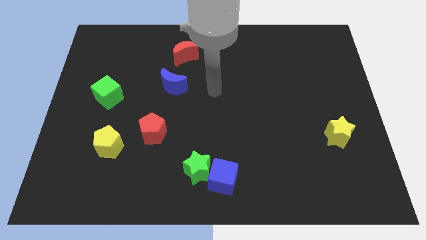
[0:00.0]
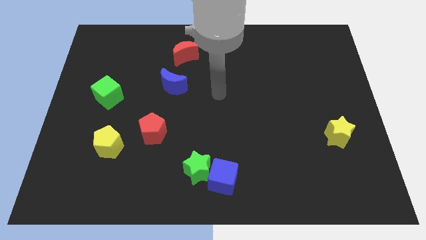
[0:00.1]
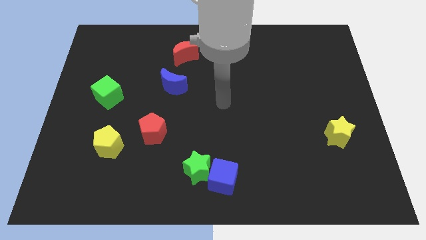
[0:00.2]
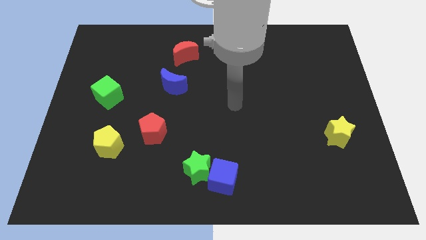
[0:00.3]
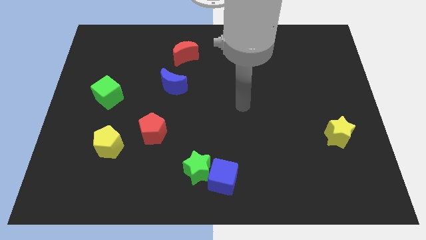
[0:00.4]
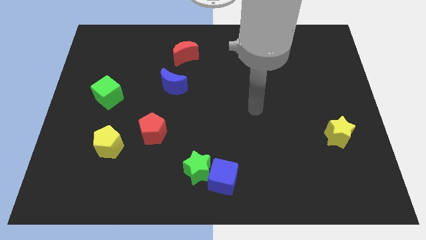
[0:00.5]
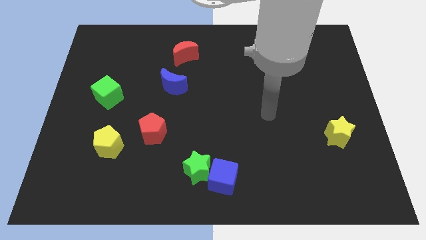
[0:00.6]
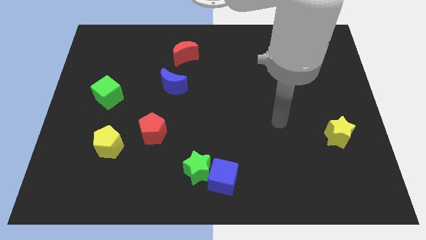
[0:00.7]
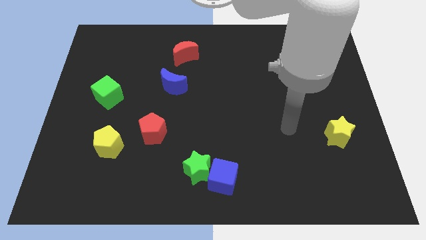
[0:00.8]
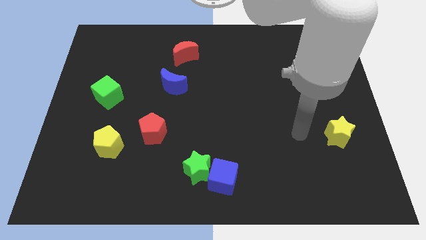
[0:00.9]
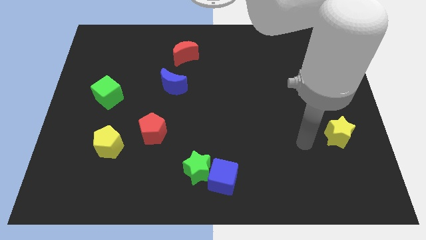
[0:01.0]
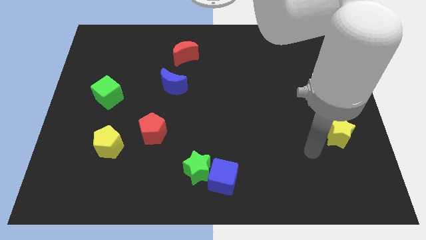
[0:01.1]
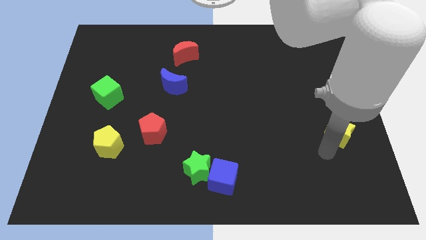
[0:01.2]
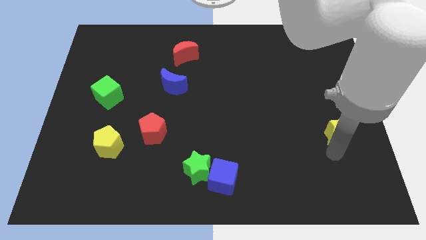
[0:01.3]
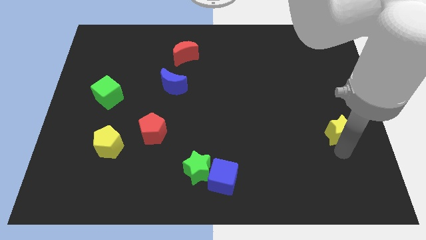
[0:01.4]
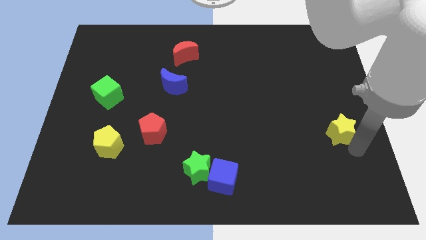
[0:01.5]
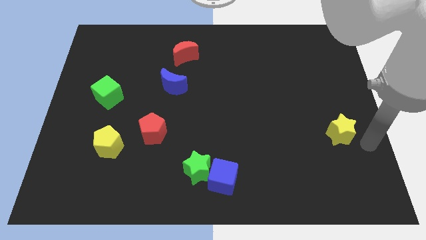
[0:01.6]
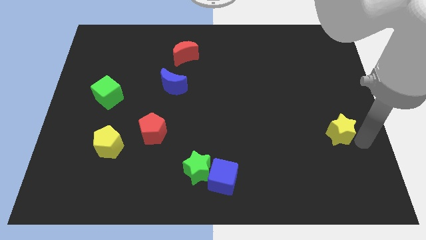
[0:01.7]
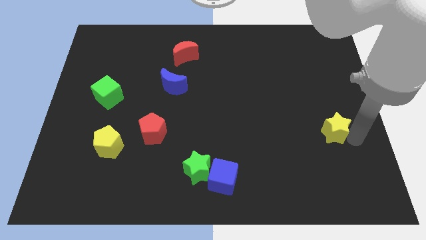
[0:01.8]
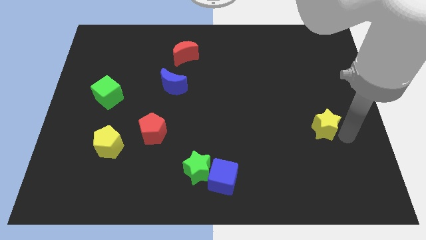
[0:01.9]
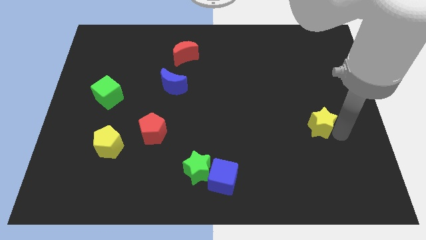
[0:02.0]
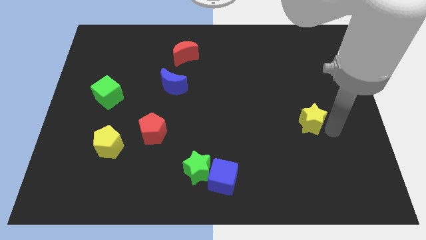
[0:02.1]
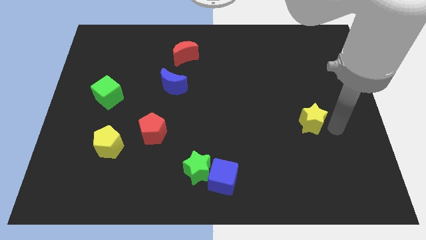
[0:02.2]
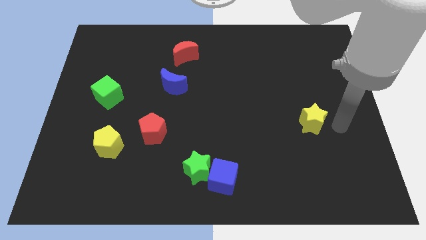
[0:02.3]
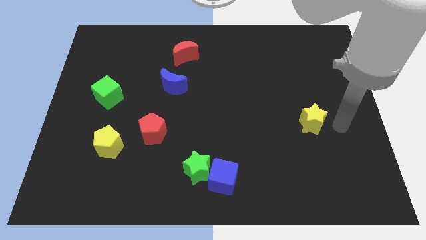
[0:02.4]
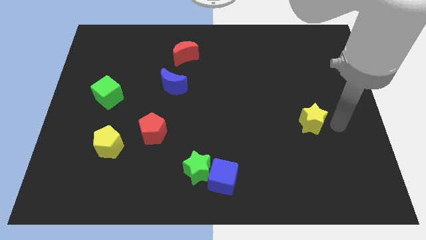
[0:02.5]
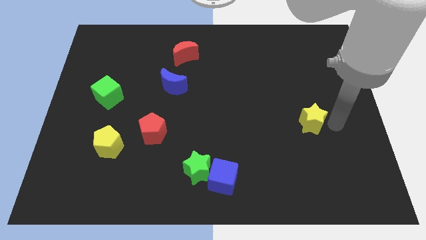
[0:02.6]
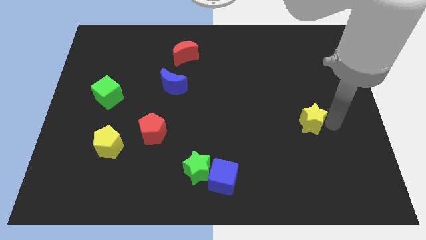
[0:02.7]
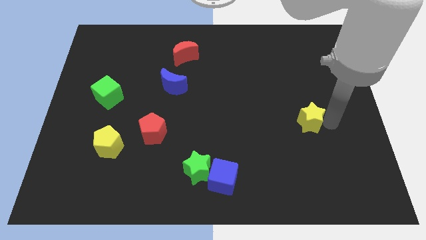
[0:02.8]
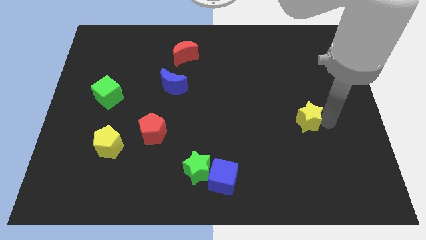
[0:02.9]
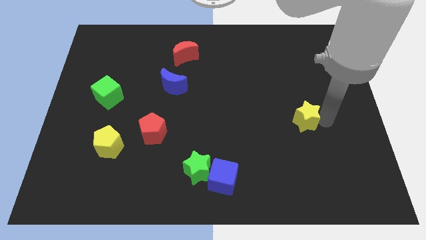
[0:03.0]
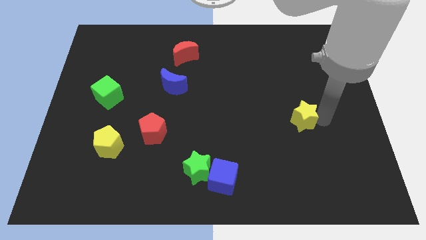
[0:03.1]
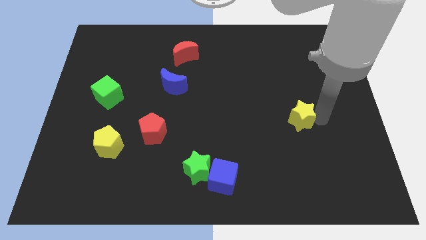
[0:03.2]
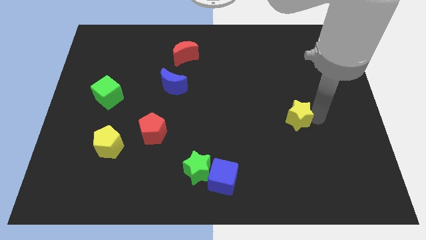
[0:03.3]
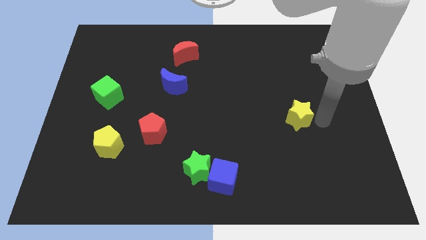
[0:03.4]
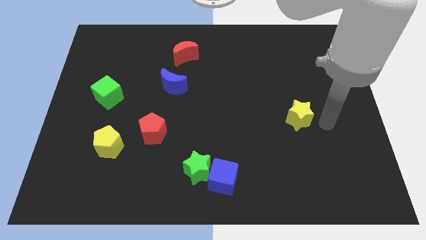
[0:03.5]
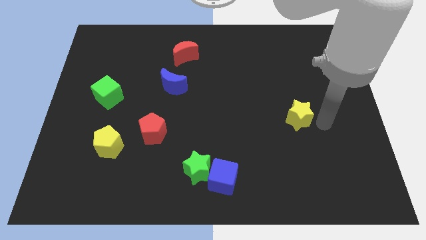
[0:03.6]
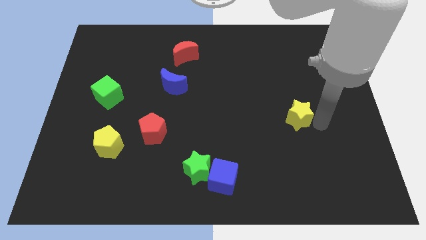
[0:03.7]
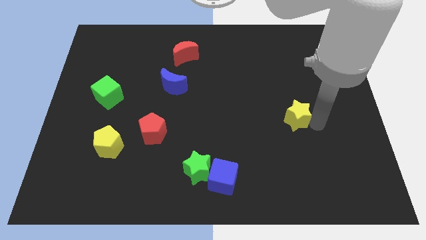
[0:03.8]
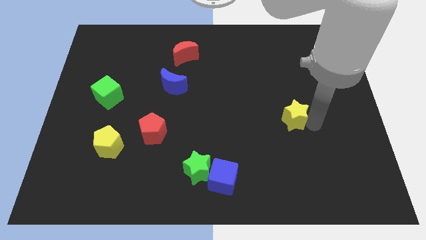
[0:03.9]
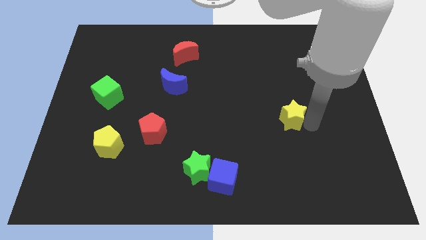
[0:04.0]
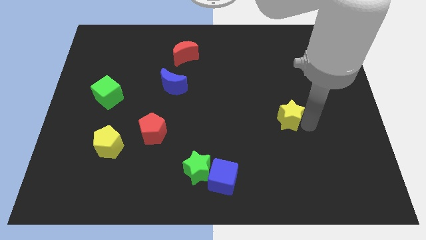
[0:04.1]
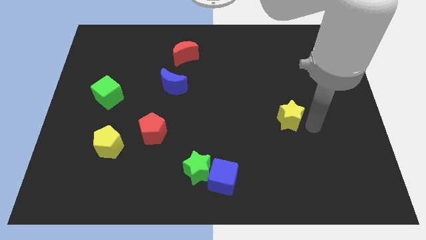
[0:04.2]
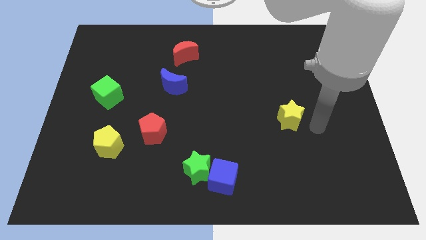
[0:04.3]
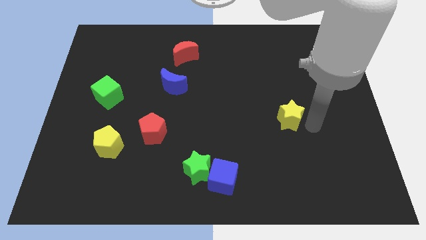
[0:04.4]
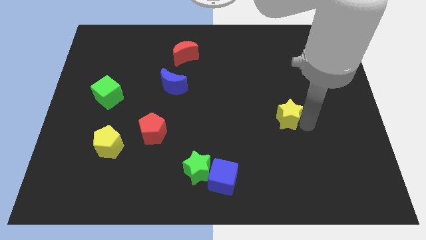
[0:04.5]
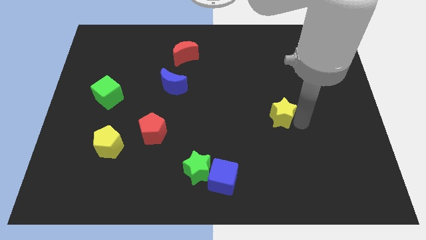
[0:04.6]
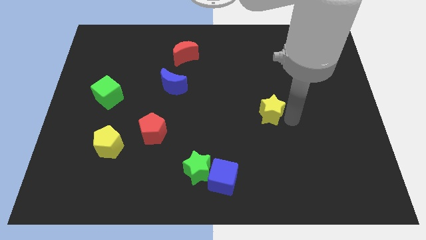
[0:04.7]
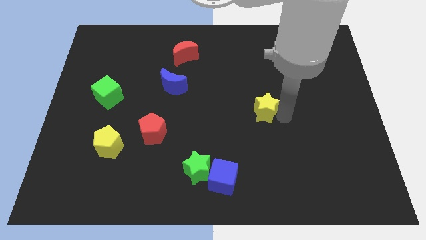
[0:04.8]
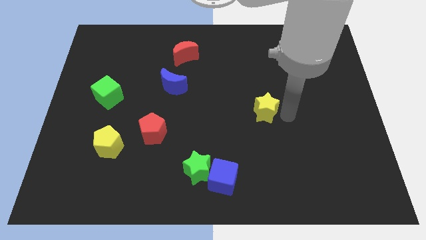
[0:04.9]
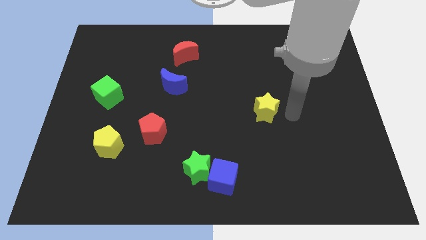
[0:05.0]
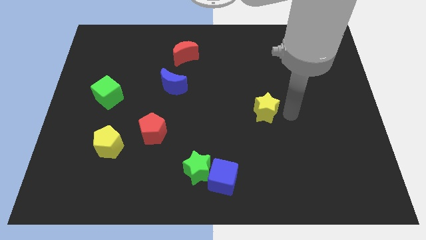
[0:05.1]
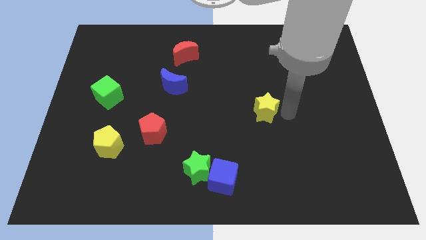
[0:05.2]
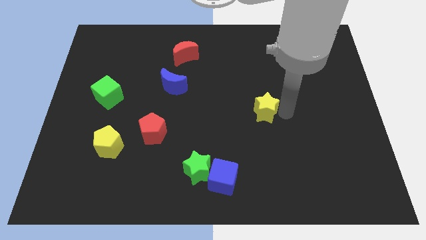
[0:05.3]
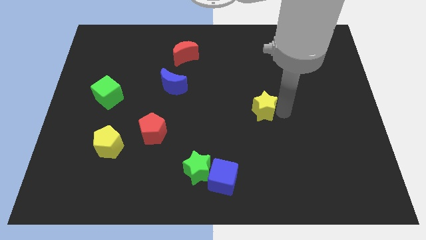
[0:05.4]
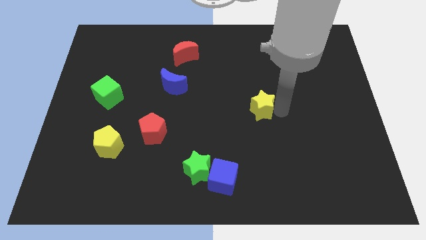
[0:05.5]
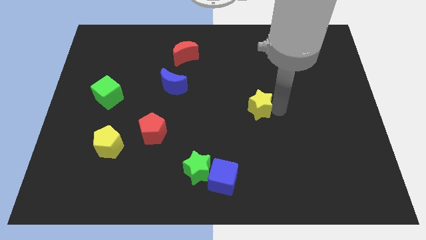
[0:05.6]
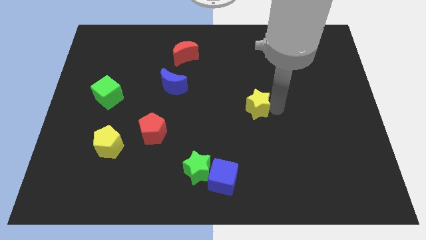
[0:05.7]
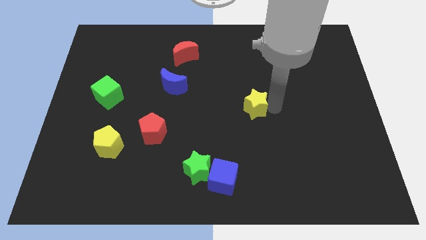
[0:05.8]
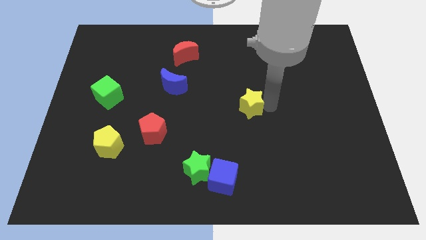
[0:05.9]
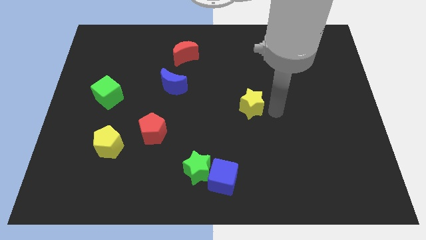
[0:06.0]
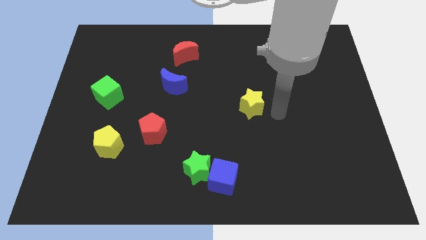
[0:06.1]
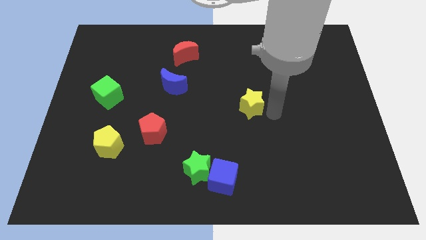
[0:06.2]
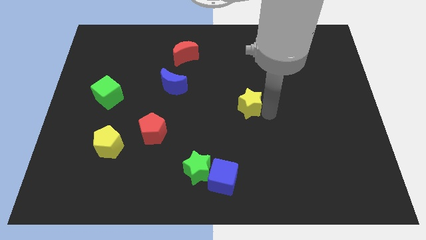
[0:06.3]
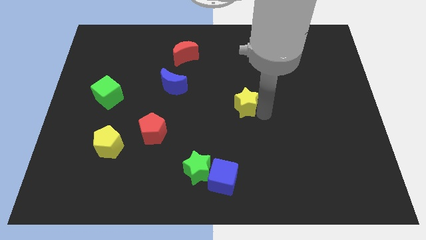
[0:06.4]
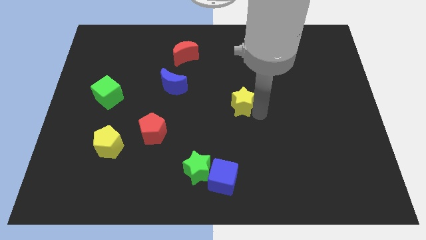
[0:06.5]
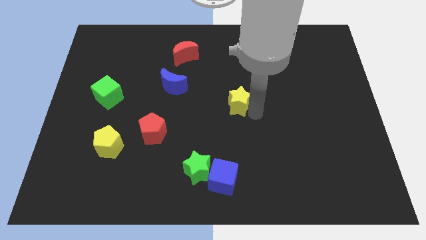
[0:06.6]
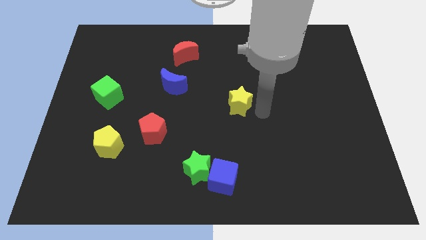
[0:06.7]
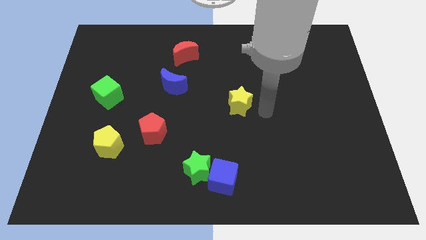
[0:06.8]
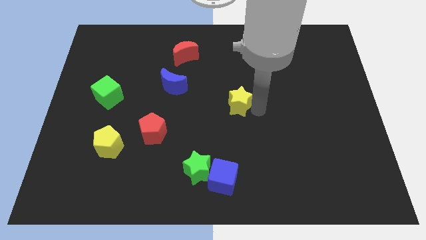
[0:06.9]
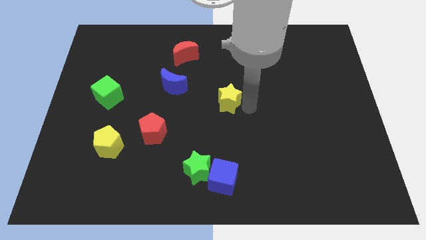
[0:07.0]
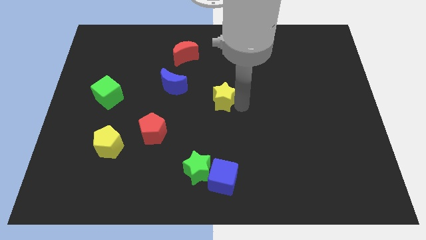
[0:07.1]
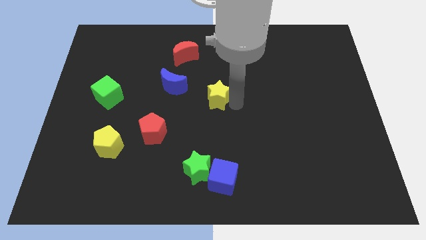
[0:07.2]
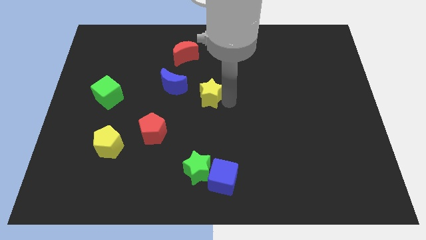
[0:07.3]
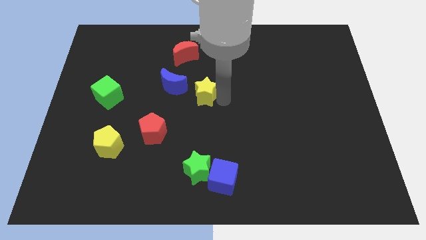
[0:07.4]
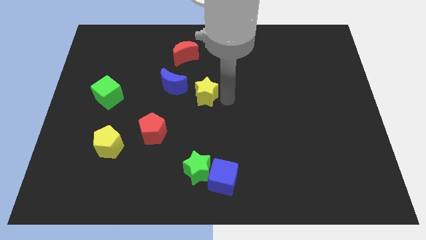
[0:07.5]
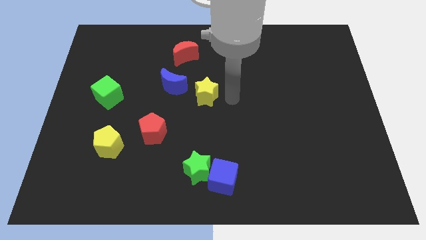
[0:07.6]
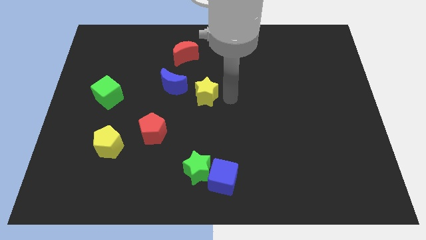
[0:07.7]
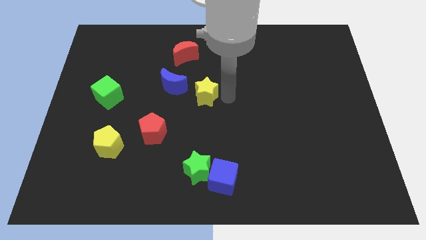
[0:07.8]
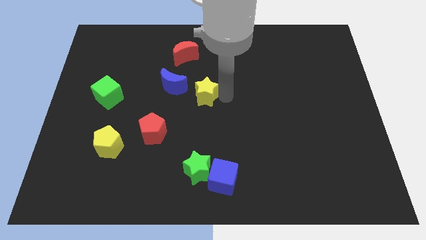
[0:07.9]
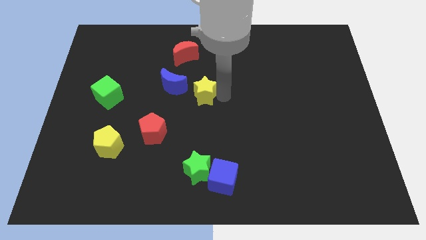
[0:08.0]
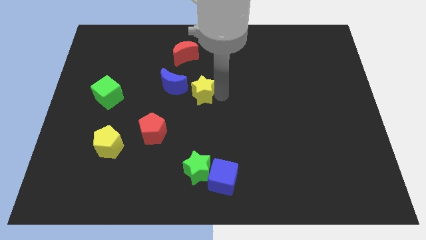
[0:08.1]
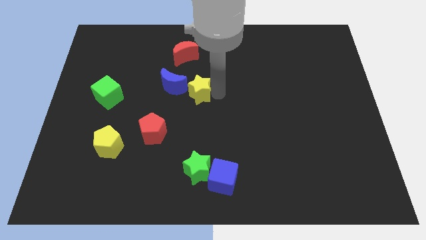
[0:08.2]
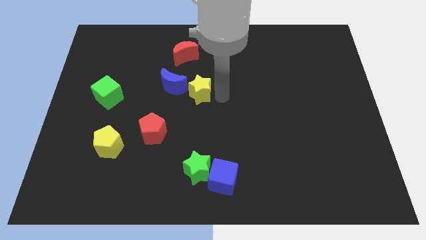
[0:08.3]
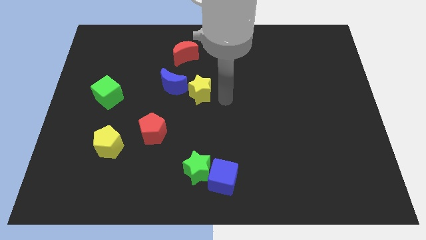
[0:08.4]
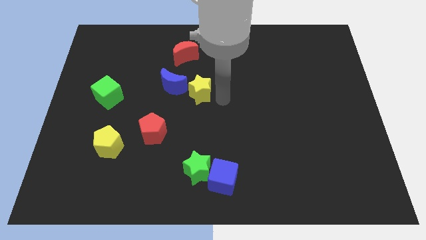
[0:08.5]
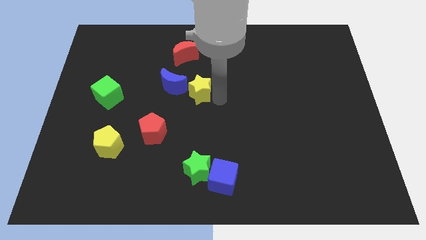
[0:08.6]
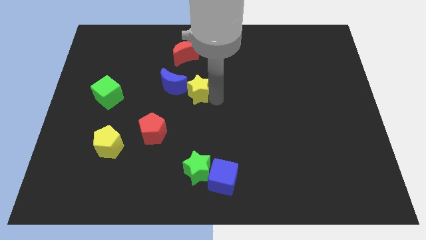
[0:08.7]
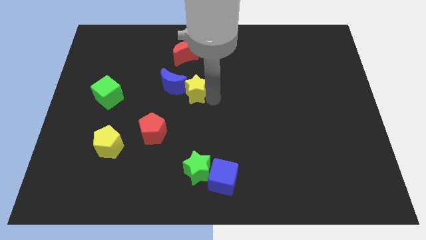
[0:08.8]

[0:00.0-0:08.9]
put the yellow star to the blue moon
